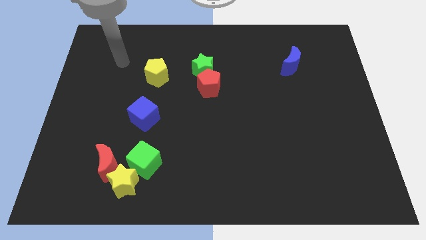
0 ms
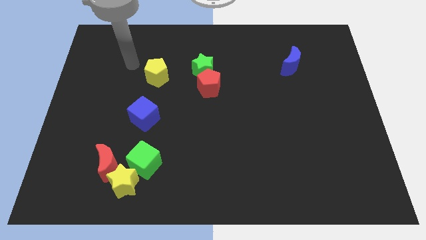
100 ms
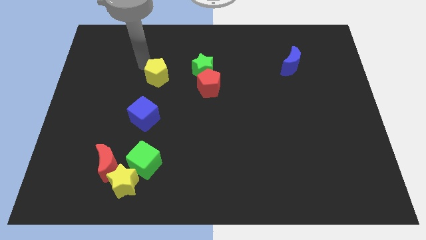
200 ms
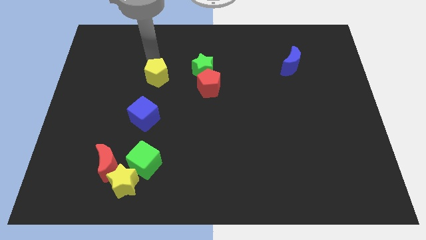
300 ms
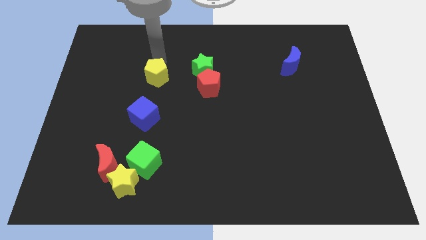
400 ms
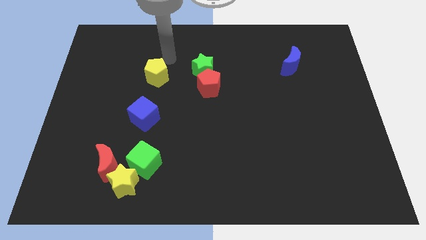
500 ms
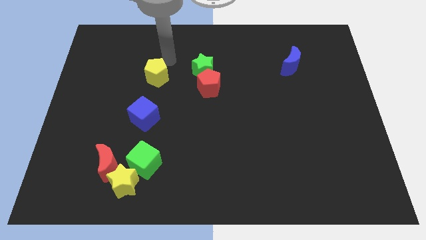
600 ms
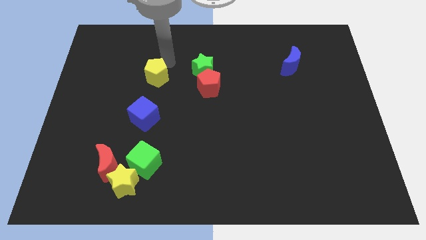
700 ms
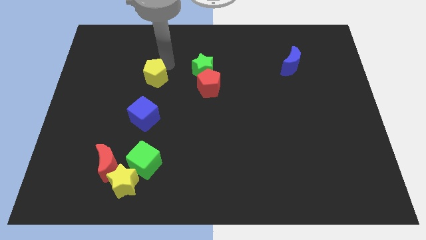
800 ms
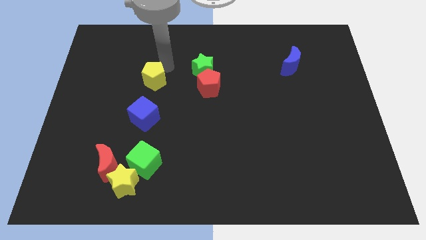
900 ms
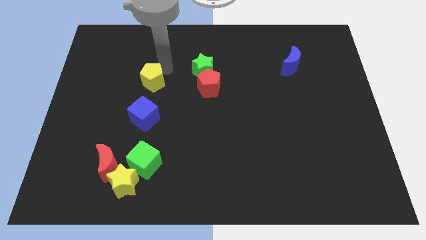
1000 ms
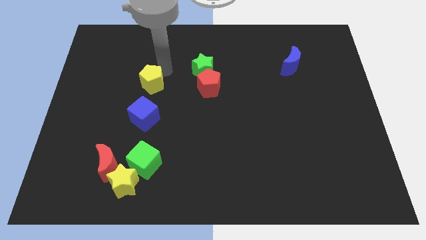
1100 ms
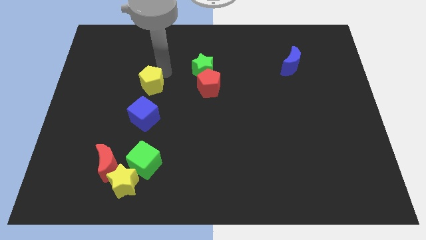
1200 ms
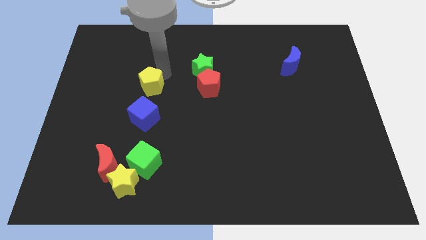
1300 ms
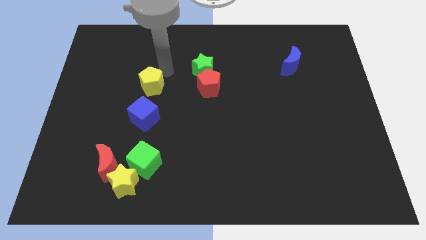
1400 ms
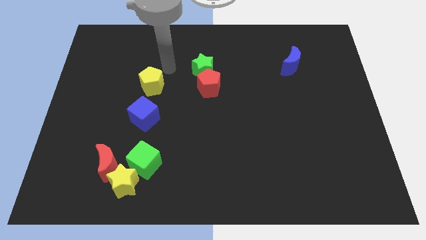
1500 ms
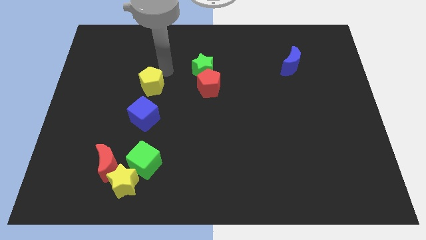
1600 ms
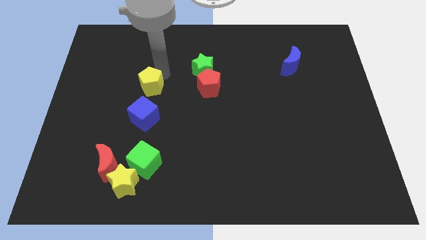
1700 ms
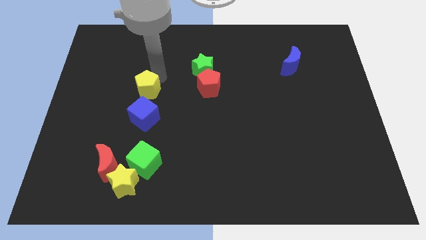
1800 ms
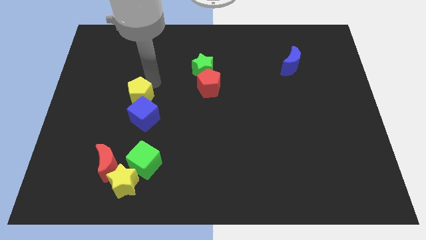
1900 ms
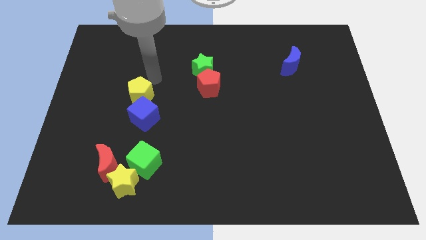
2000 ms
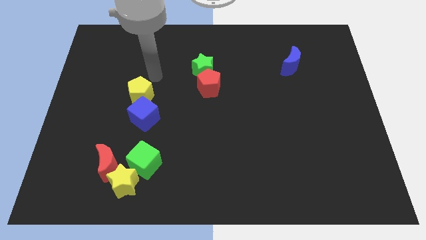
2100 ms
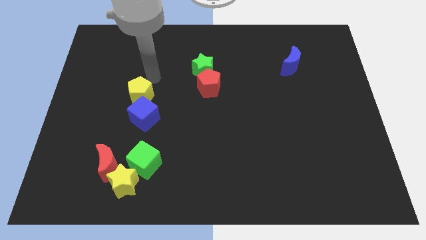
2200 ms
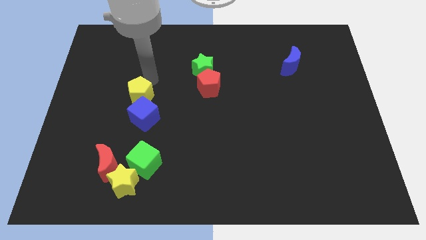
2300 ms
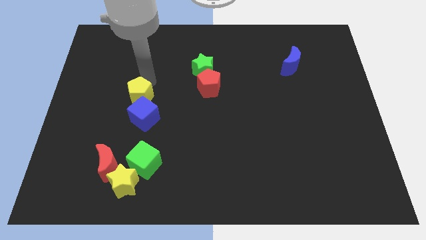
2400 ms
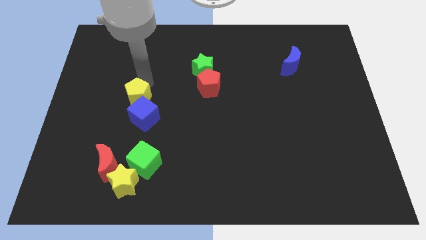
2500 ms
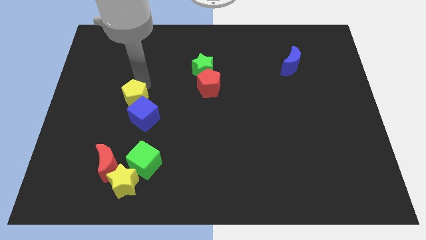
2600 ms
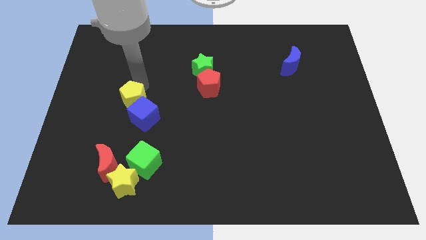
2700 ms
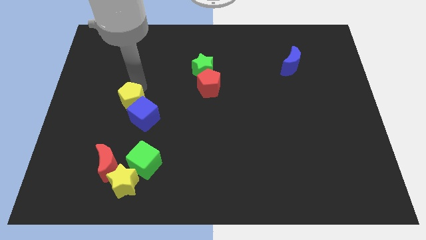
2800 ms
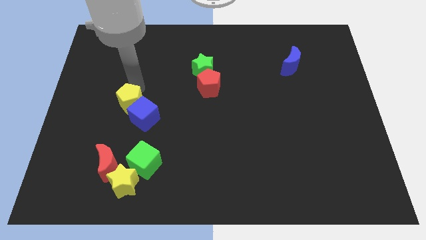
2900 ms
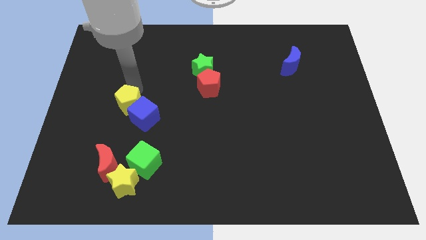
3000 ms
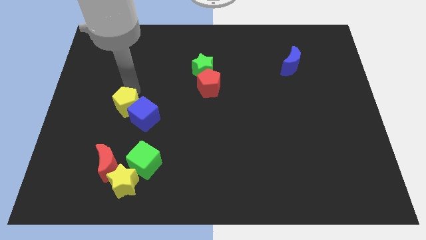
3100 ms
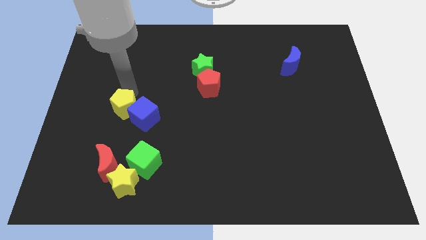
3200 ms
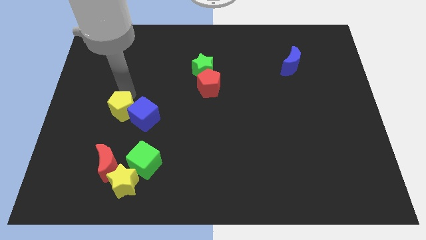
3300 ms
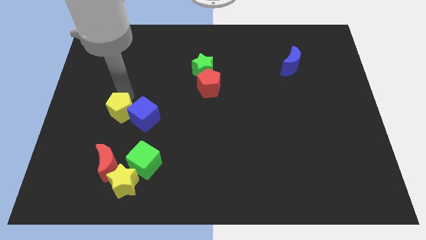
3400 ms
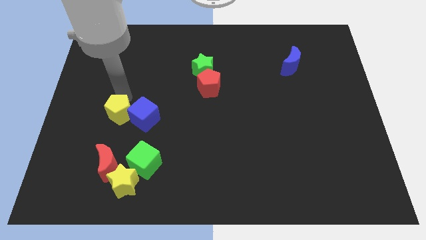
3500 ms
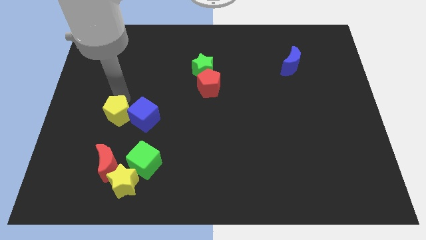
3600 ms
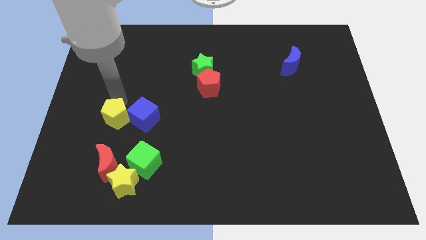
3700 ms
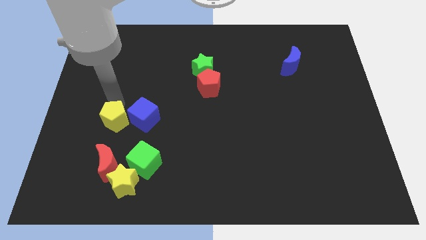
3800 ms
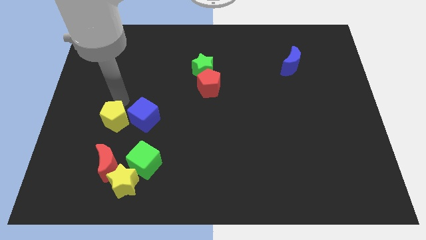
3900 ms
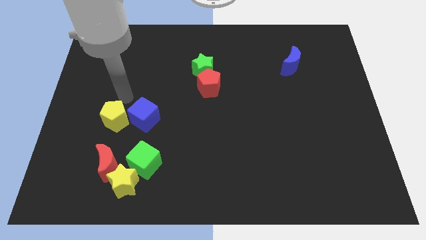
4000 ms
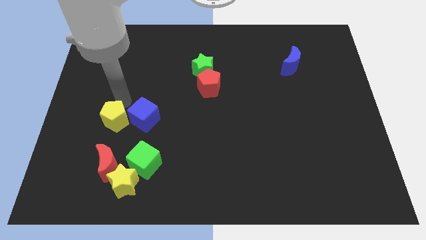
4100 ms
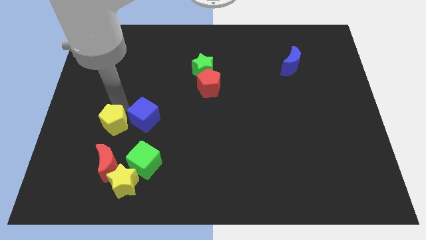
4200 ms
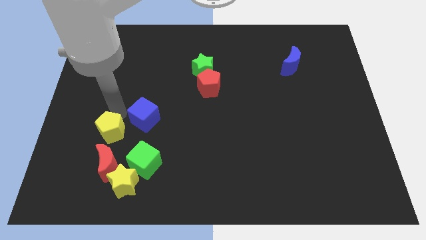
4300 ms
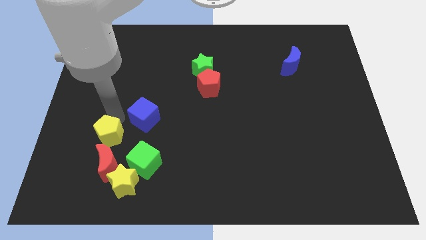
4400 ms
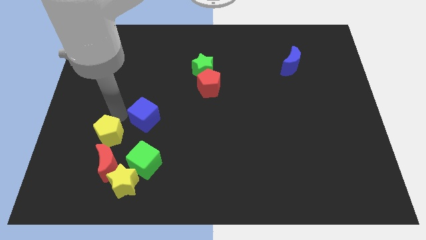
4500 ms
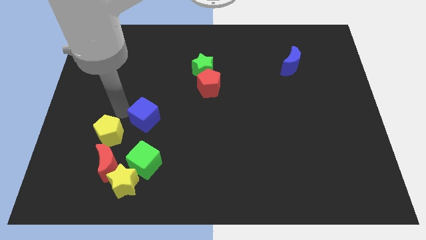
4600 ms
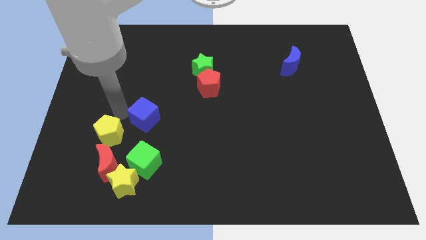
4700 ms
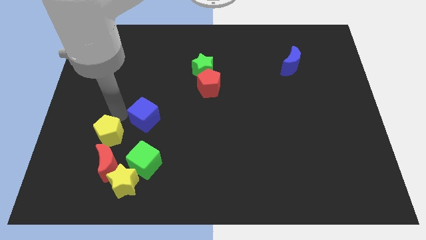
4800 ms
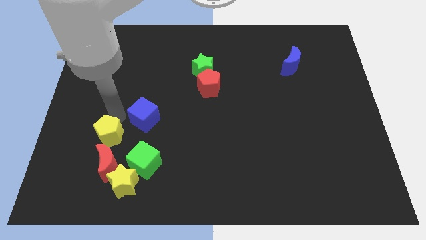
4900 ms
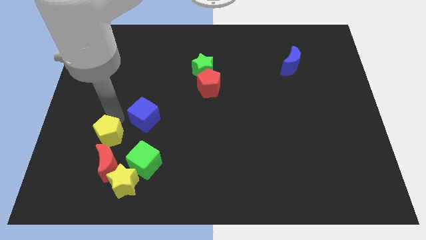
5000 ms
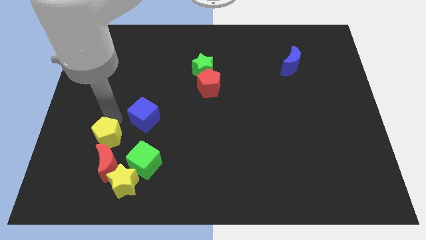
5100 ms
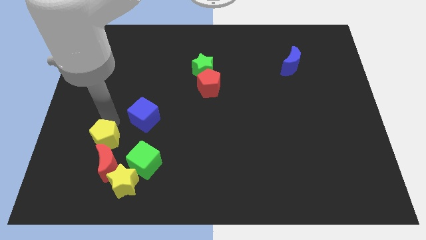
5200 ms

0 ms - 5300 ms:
push the yellow pentagon diagonally up and to the left of the yellow star

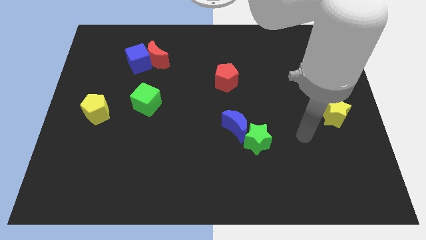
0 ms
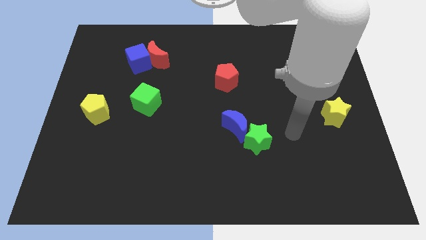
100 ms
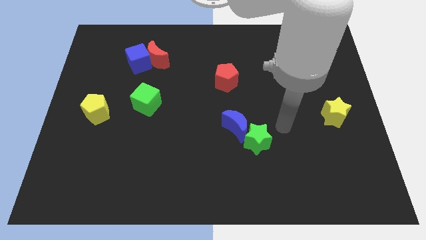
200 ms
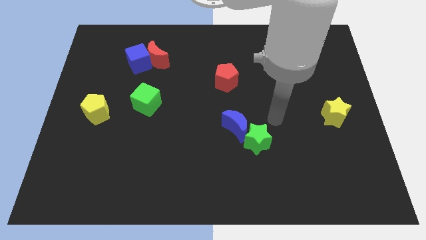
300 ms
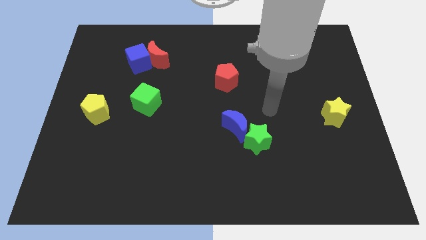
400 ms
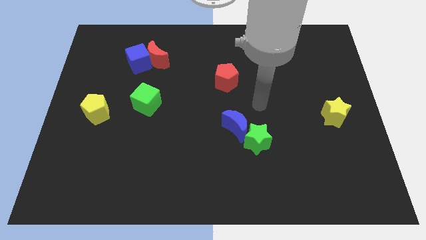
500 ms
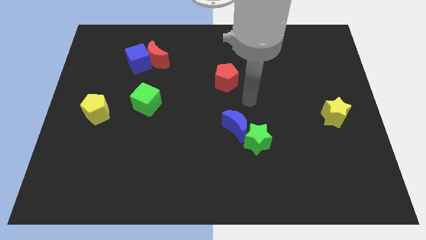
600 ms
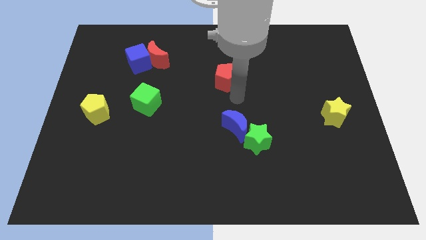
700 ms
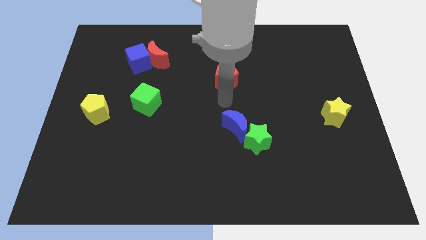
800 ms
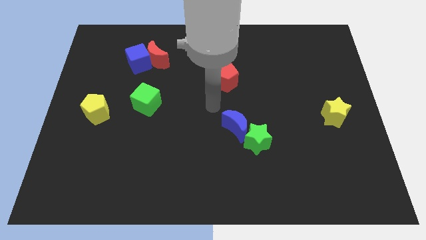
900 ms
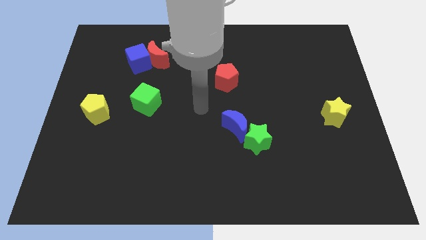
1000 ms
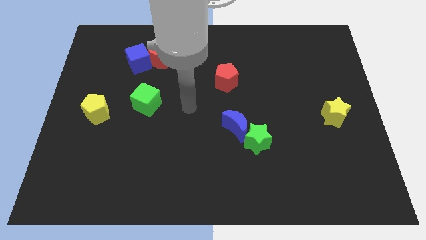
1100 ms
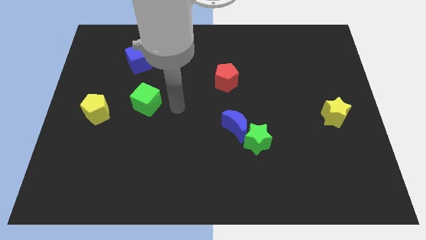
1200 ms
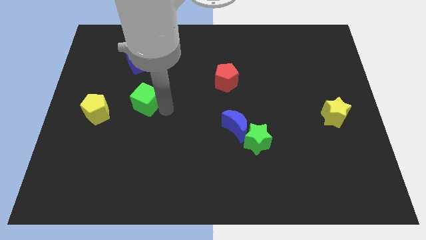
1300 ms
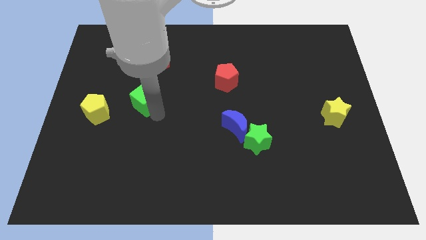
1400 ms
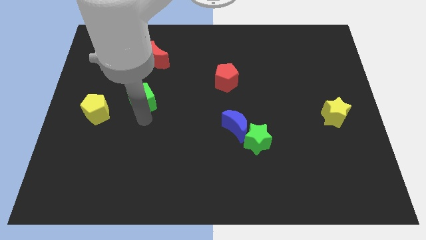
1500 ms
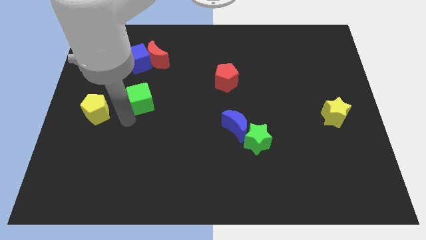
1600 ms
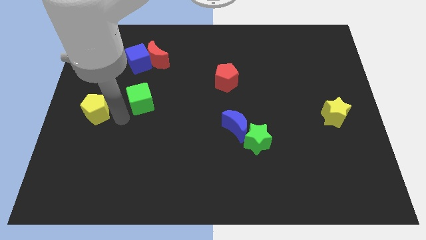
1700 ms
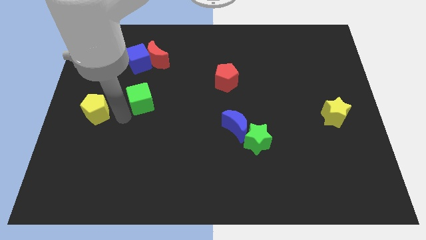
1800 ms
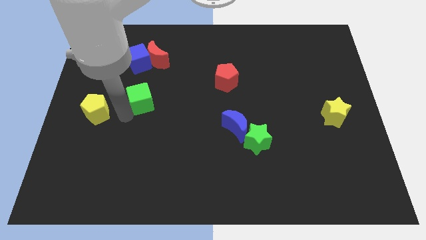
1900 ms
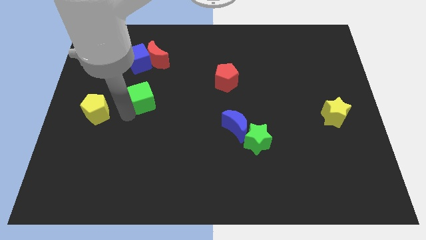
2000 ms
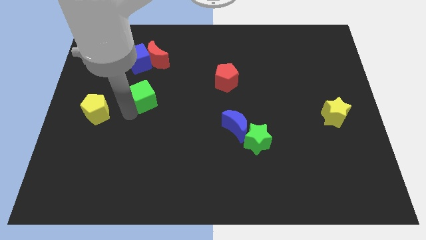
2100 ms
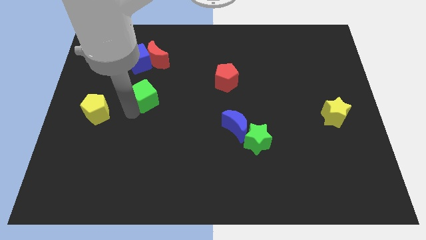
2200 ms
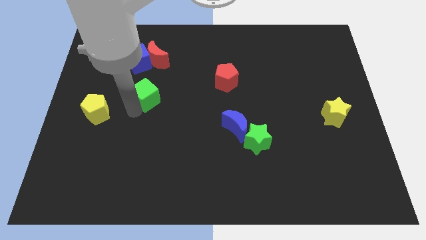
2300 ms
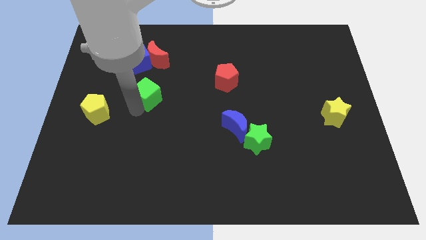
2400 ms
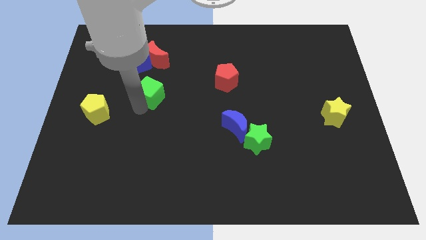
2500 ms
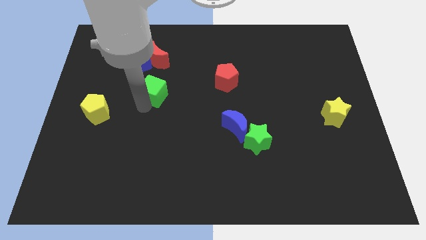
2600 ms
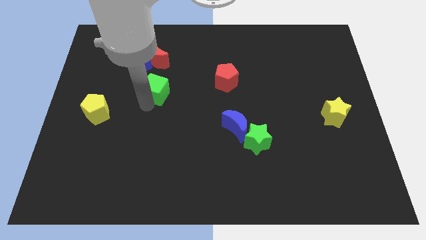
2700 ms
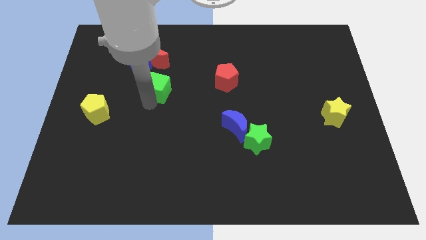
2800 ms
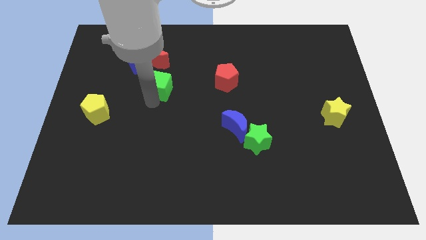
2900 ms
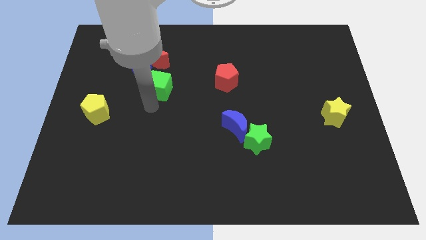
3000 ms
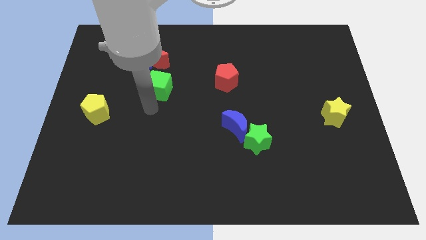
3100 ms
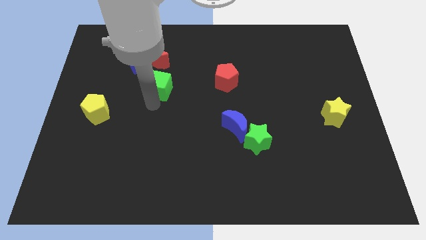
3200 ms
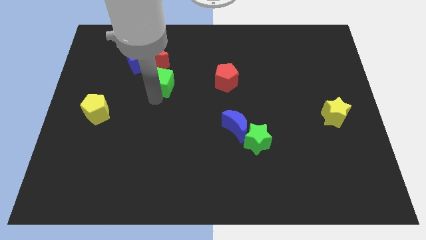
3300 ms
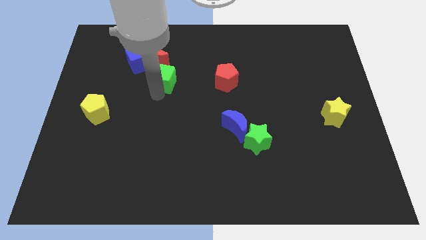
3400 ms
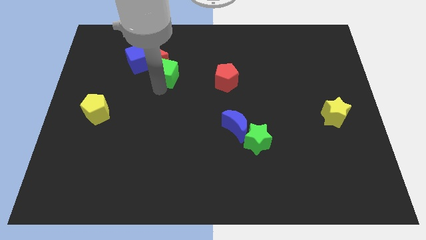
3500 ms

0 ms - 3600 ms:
push the green cube to the right of the blue cube
